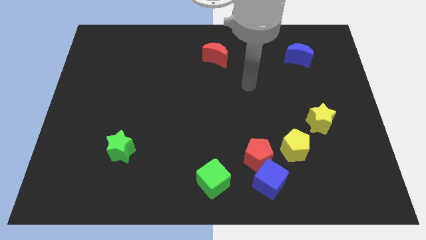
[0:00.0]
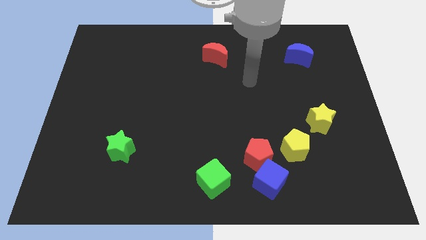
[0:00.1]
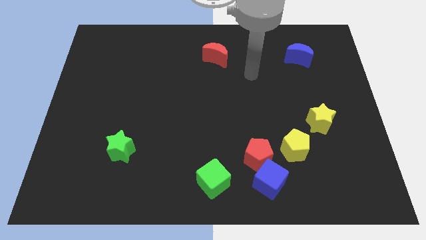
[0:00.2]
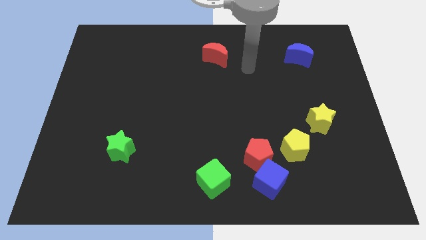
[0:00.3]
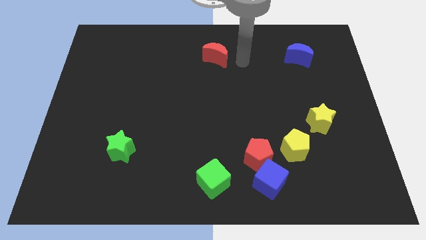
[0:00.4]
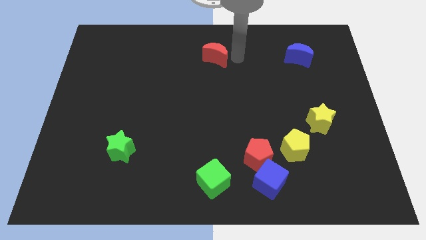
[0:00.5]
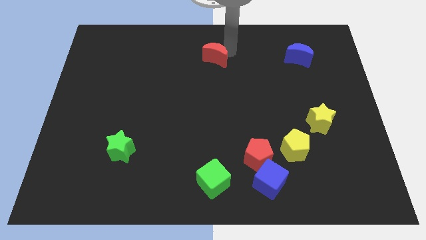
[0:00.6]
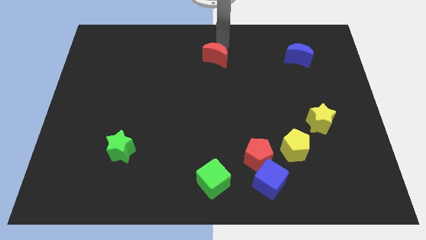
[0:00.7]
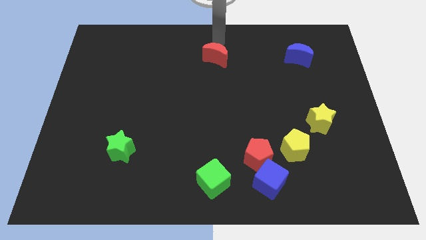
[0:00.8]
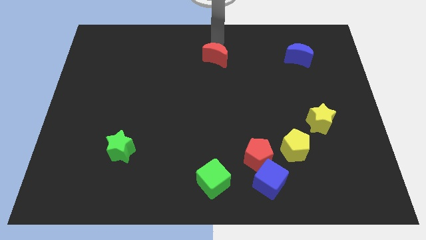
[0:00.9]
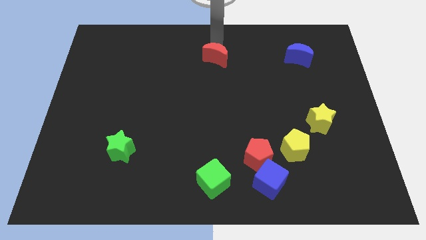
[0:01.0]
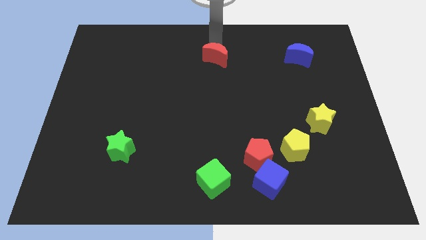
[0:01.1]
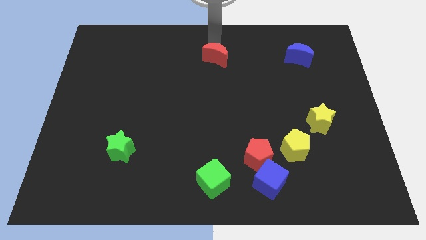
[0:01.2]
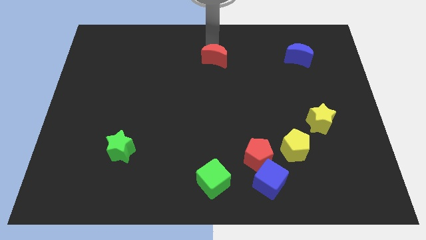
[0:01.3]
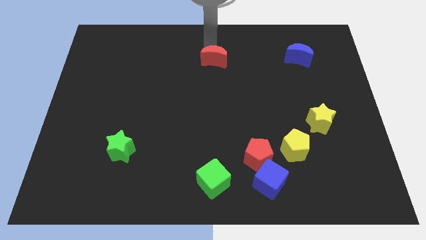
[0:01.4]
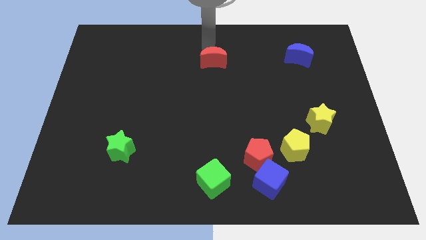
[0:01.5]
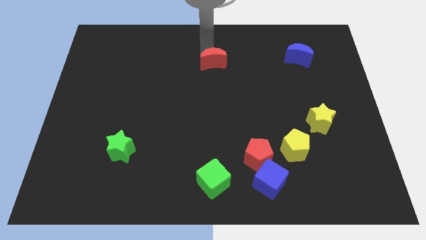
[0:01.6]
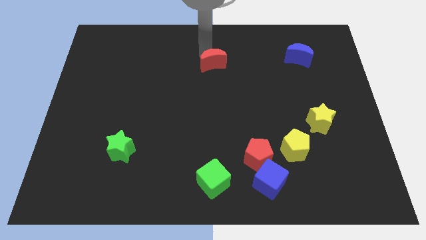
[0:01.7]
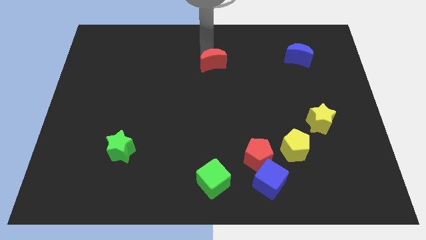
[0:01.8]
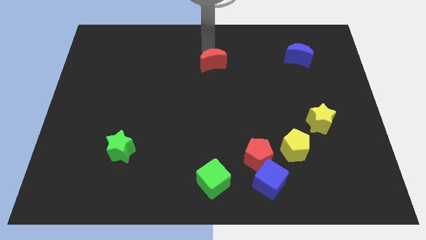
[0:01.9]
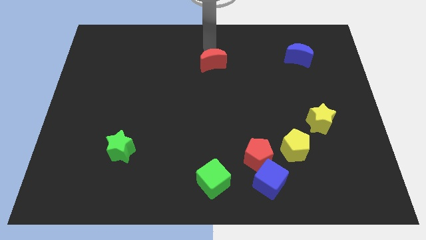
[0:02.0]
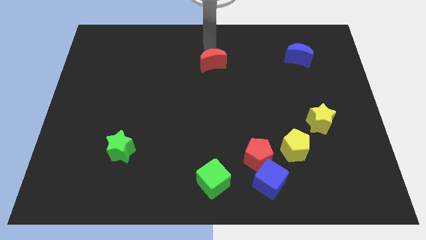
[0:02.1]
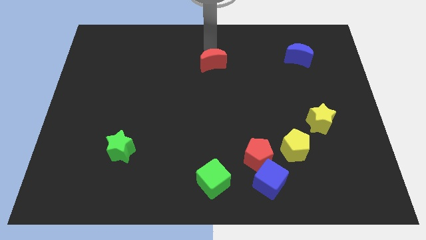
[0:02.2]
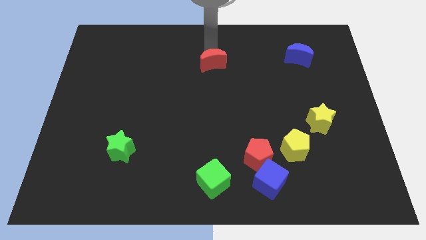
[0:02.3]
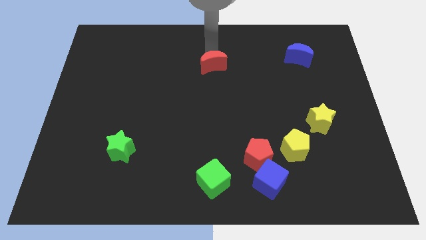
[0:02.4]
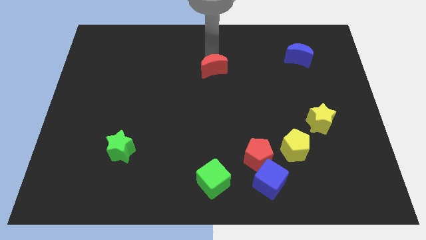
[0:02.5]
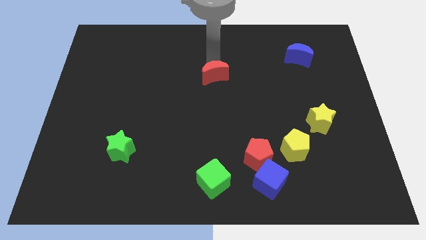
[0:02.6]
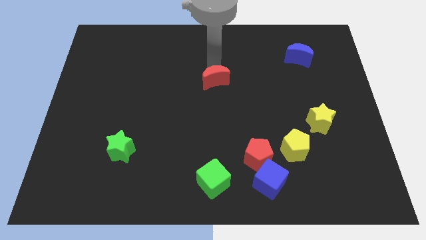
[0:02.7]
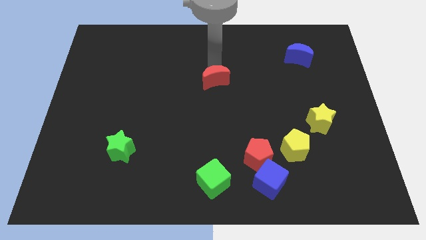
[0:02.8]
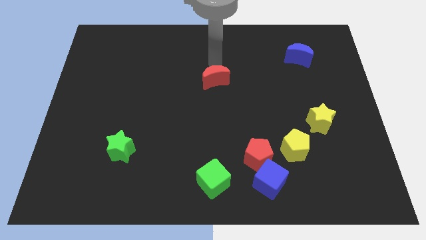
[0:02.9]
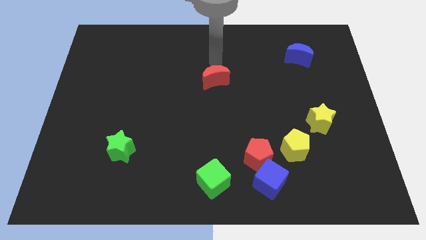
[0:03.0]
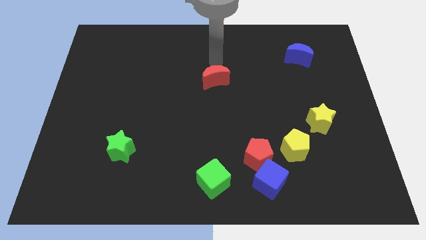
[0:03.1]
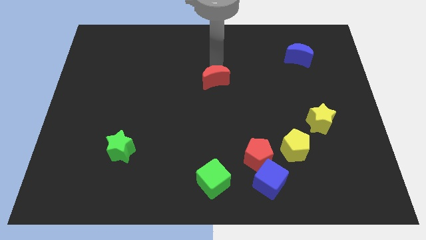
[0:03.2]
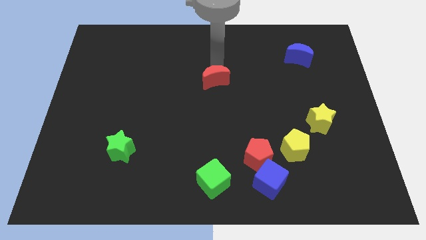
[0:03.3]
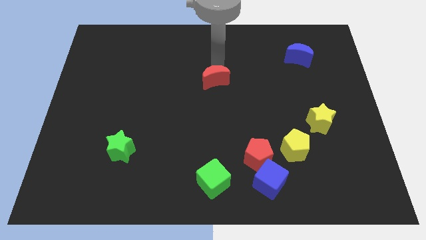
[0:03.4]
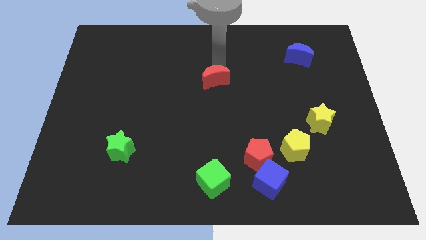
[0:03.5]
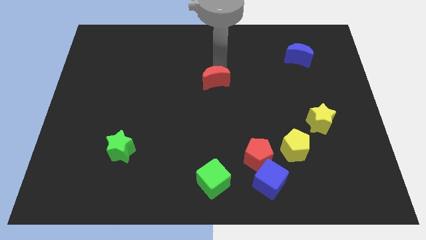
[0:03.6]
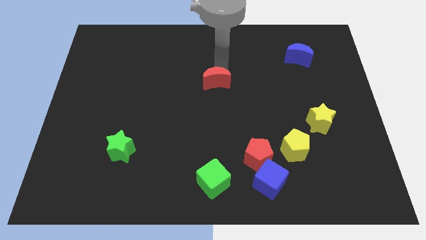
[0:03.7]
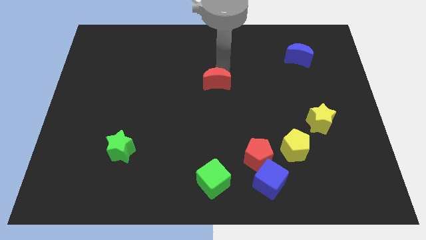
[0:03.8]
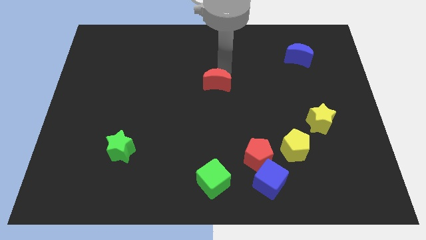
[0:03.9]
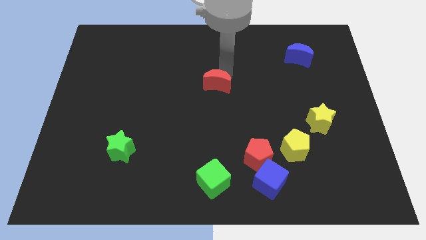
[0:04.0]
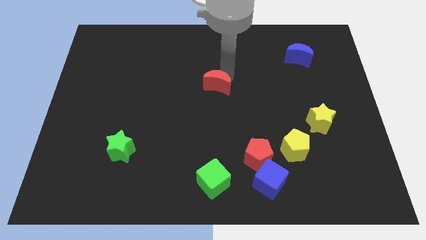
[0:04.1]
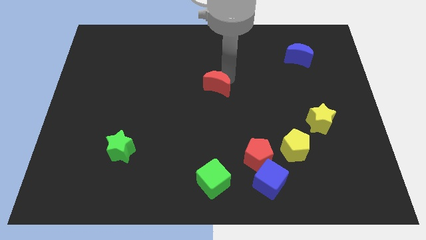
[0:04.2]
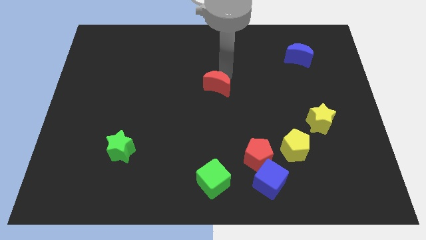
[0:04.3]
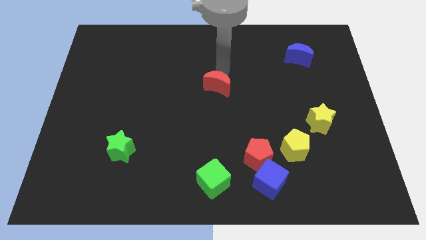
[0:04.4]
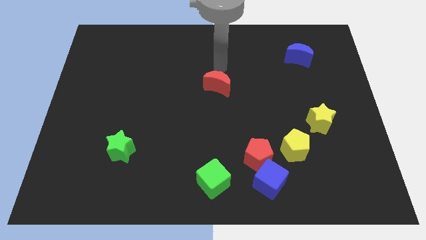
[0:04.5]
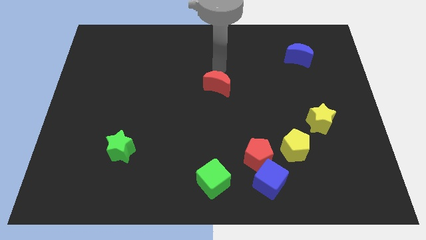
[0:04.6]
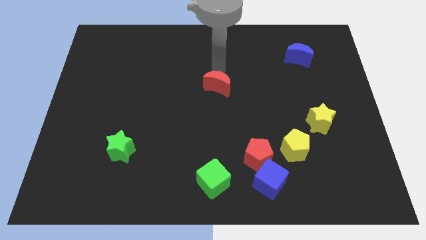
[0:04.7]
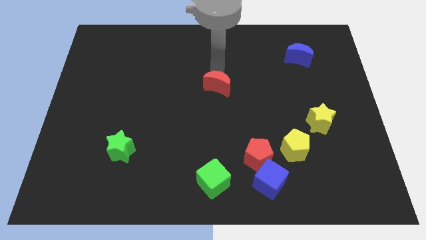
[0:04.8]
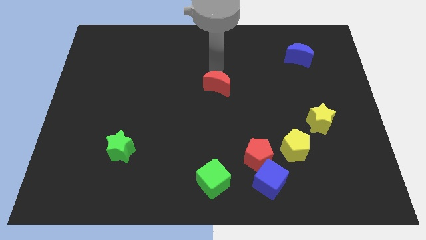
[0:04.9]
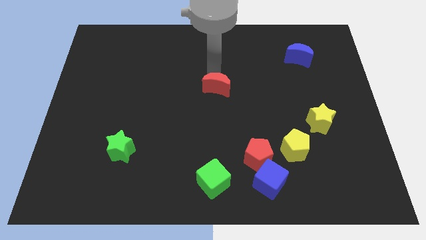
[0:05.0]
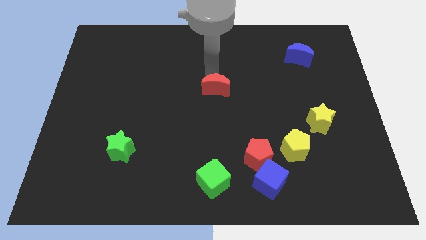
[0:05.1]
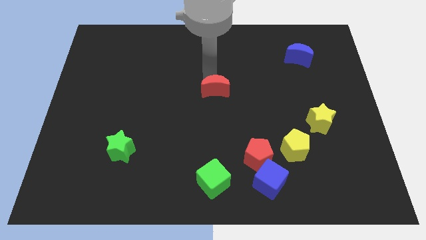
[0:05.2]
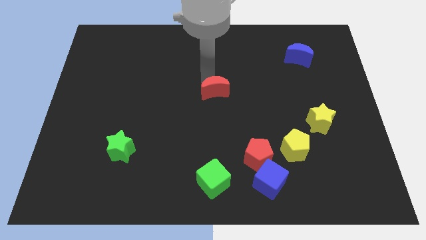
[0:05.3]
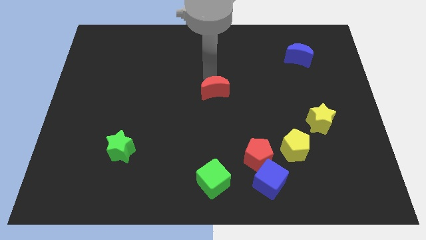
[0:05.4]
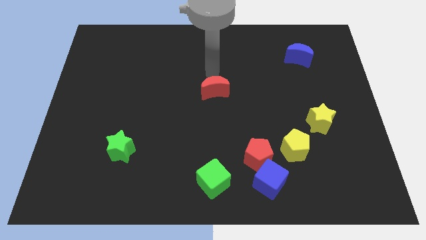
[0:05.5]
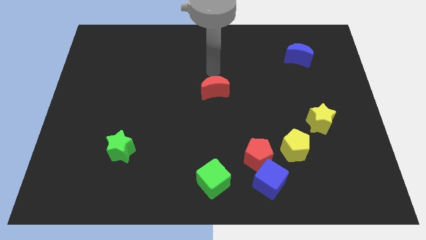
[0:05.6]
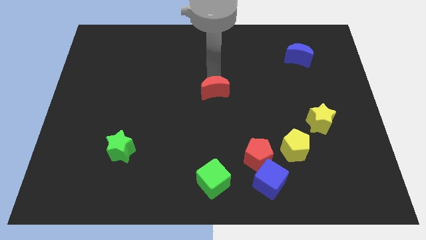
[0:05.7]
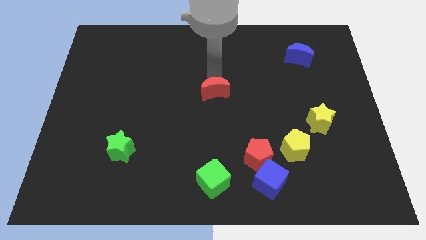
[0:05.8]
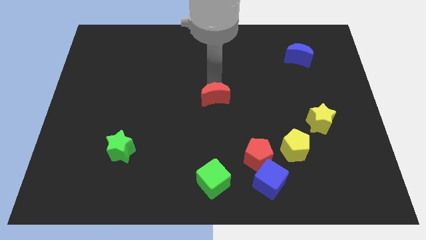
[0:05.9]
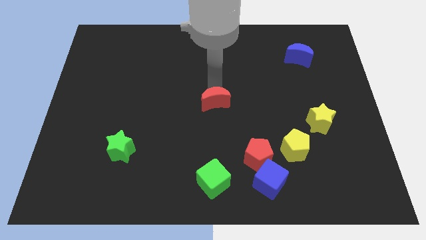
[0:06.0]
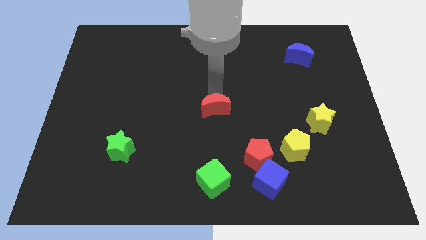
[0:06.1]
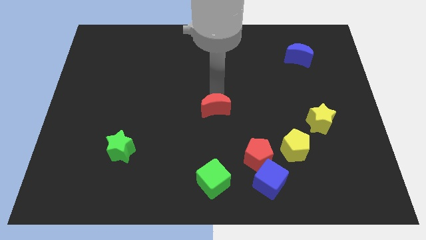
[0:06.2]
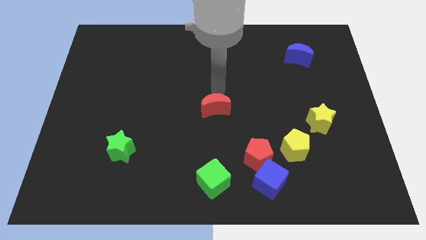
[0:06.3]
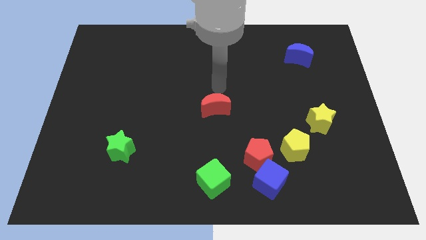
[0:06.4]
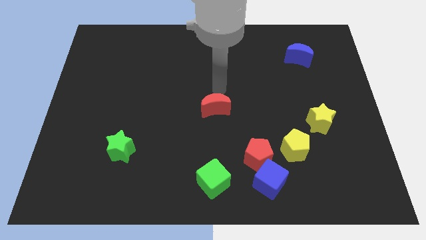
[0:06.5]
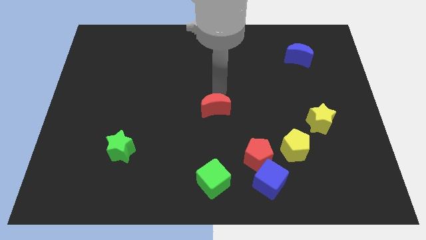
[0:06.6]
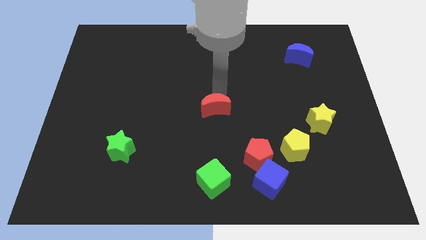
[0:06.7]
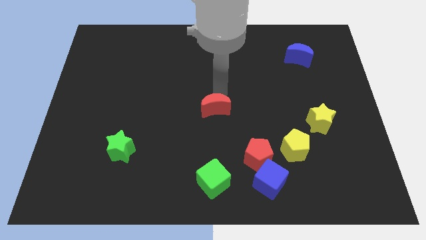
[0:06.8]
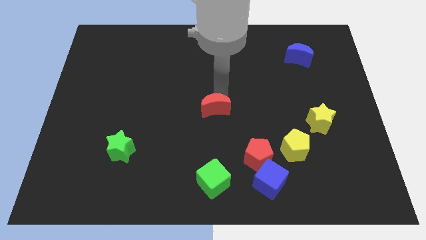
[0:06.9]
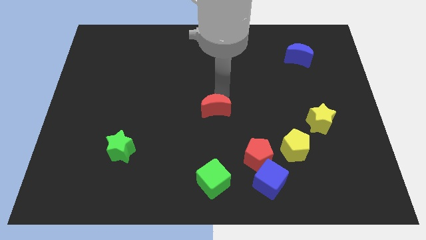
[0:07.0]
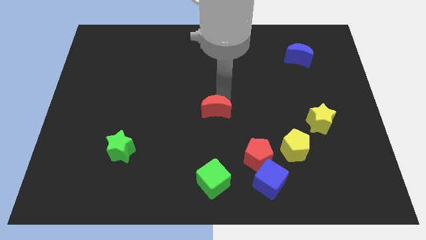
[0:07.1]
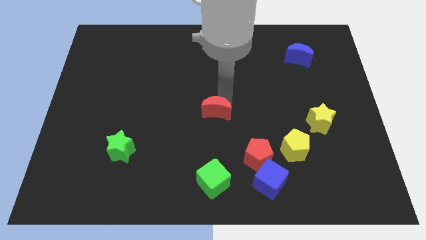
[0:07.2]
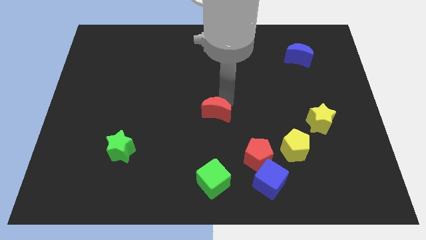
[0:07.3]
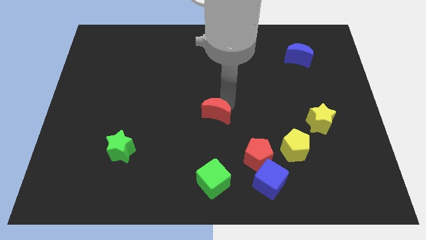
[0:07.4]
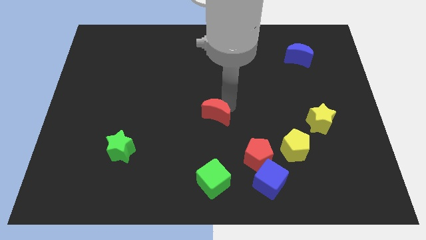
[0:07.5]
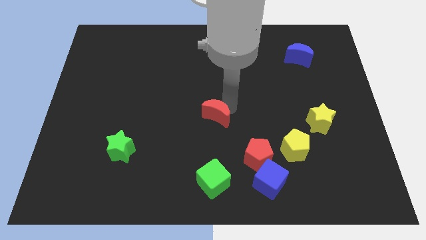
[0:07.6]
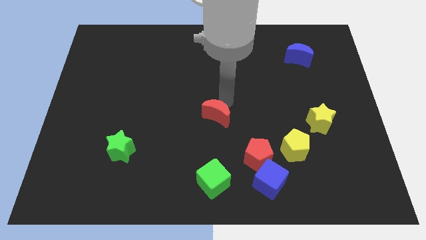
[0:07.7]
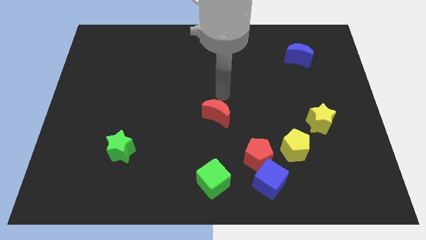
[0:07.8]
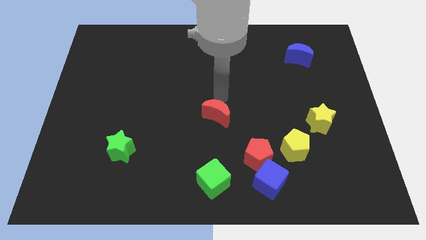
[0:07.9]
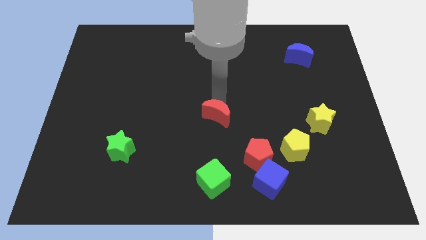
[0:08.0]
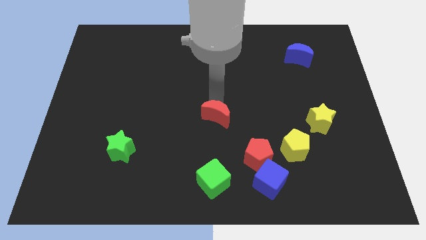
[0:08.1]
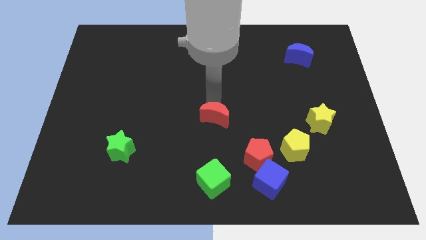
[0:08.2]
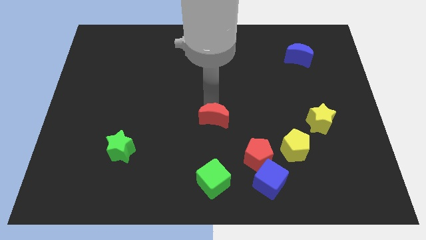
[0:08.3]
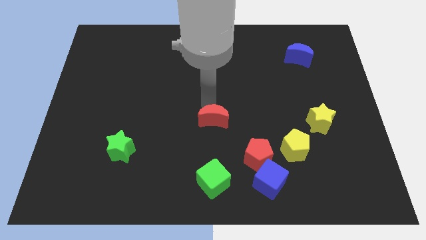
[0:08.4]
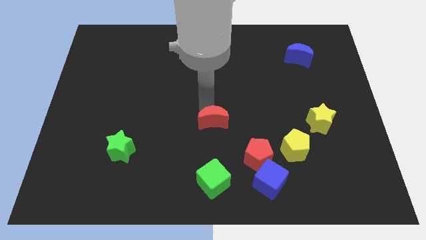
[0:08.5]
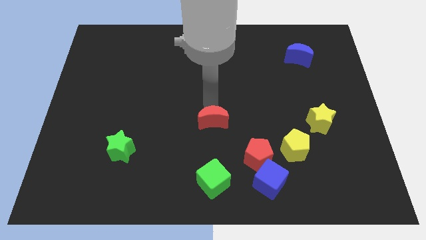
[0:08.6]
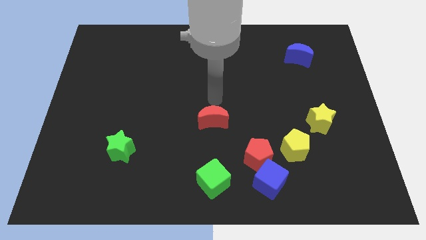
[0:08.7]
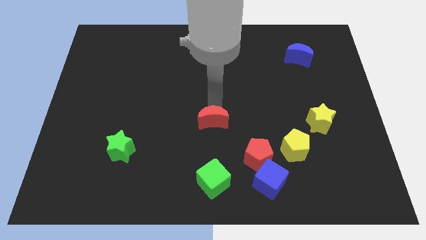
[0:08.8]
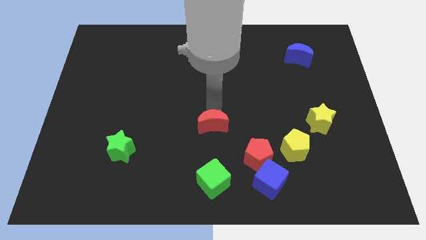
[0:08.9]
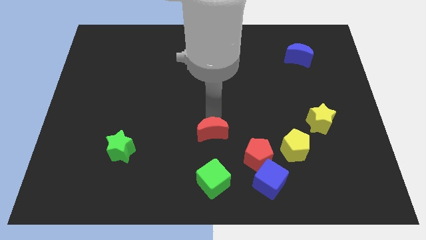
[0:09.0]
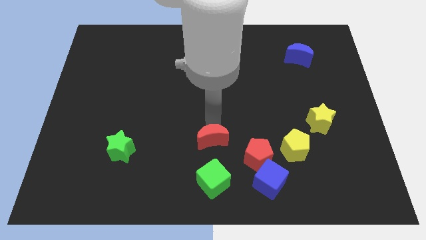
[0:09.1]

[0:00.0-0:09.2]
push the red moon just left of the red pentagon
